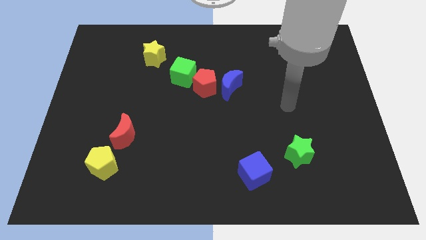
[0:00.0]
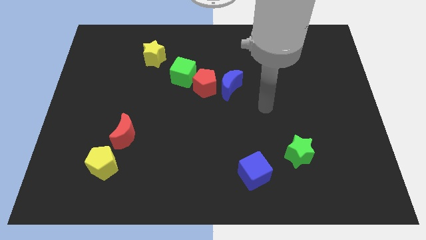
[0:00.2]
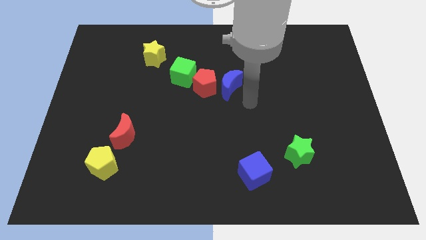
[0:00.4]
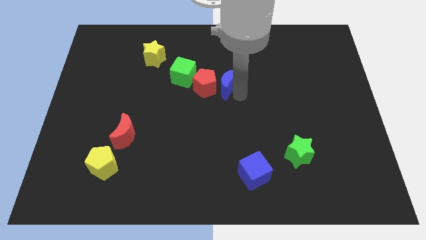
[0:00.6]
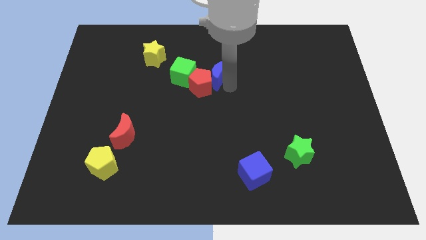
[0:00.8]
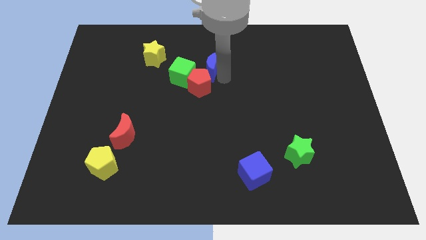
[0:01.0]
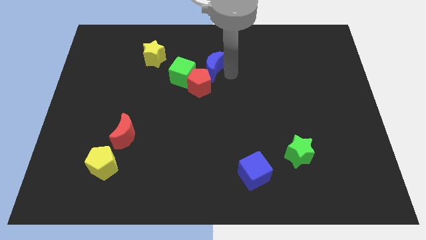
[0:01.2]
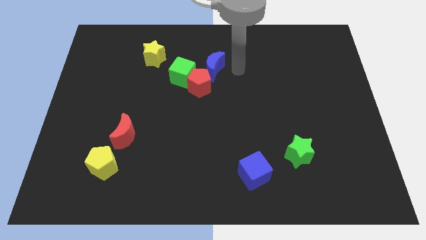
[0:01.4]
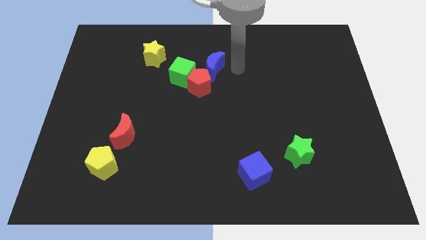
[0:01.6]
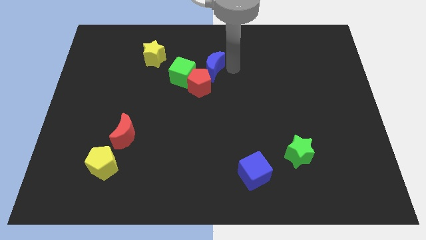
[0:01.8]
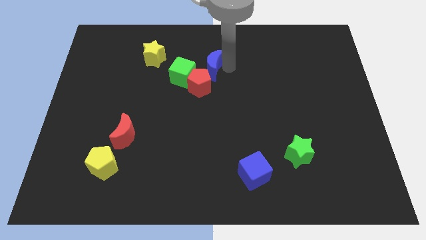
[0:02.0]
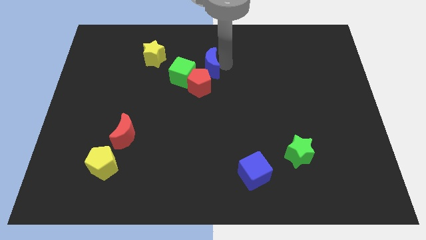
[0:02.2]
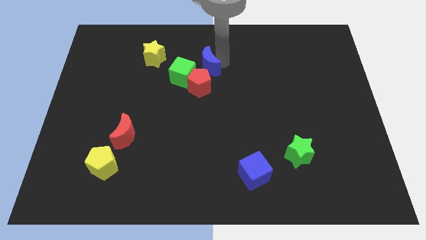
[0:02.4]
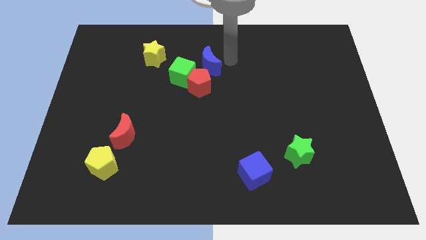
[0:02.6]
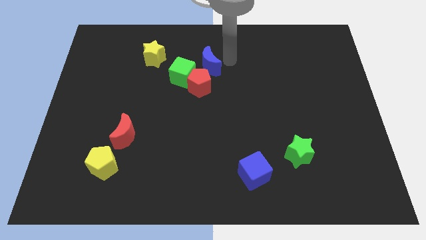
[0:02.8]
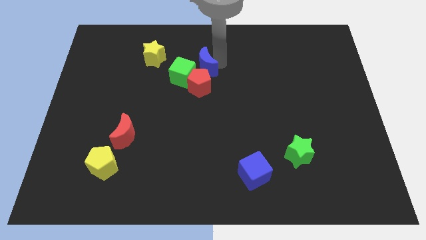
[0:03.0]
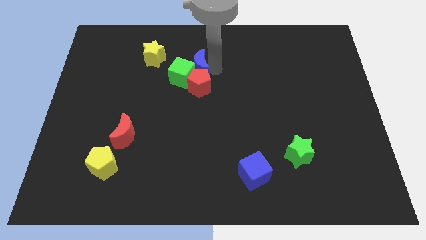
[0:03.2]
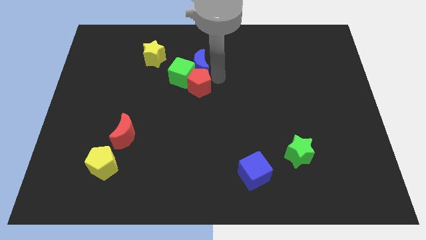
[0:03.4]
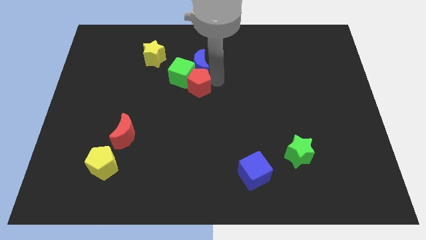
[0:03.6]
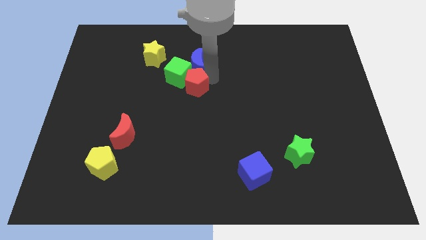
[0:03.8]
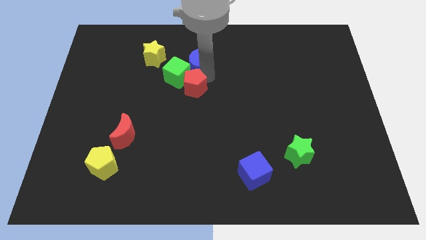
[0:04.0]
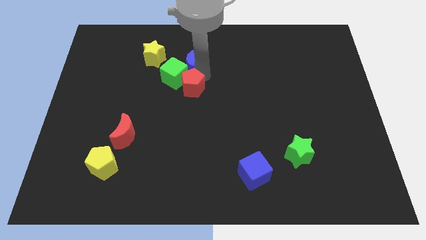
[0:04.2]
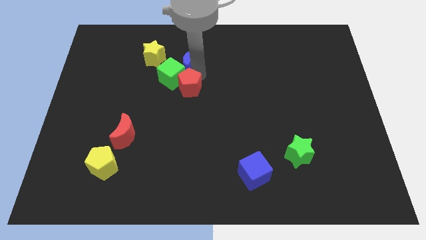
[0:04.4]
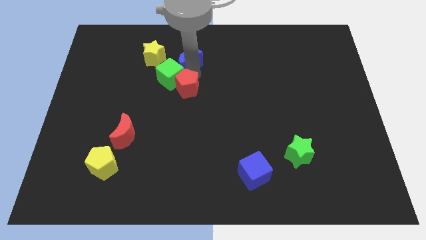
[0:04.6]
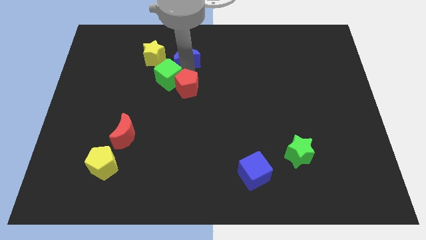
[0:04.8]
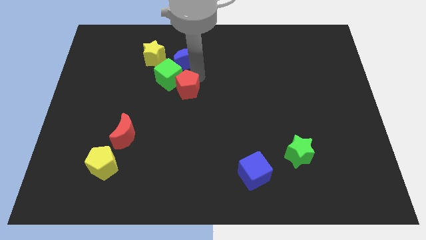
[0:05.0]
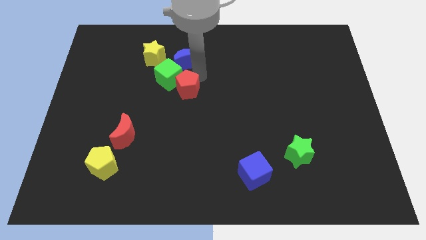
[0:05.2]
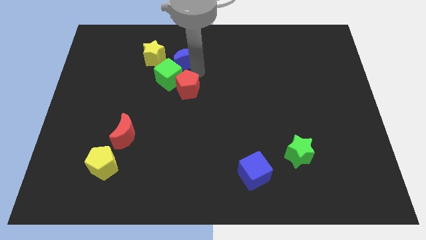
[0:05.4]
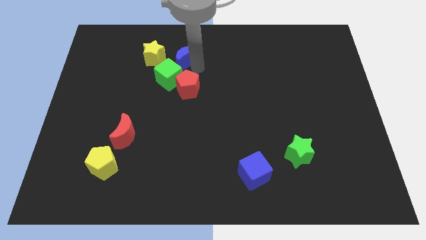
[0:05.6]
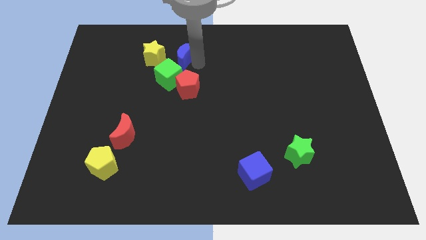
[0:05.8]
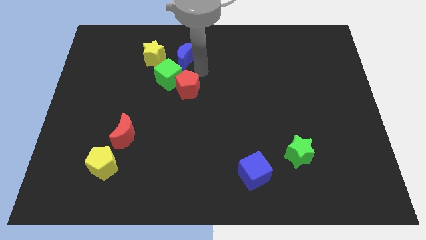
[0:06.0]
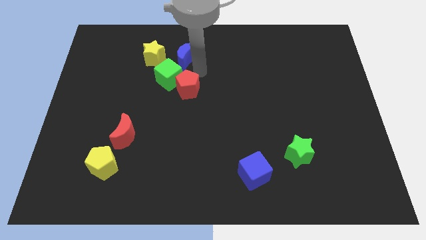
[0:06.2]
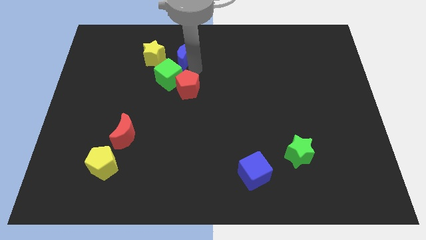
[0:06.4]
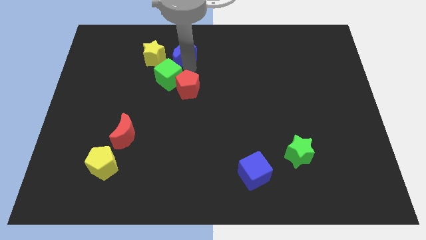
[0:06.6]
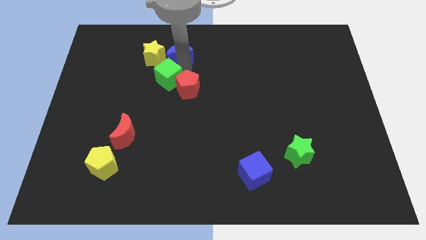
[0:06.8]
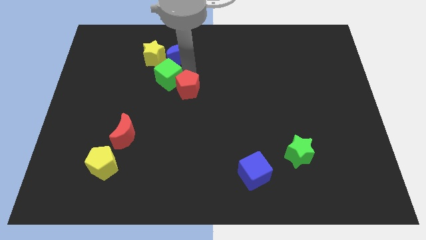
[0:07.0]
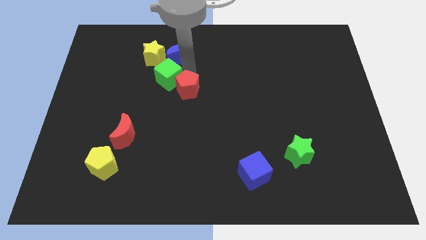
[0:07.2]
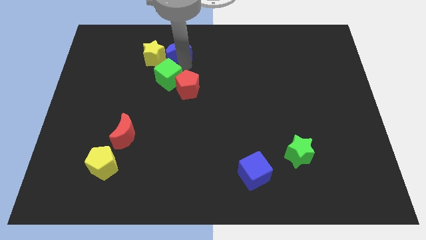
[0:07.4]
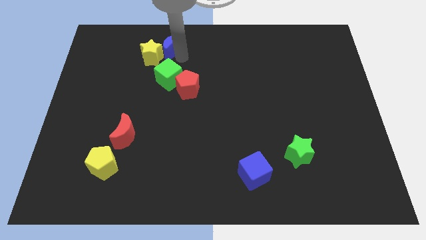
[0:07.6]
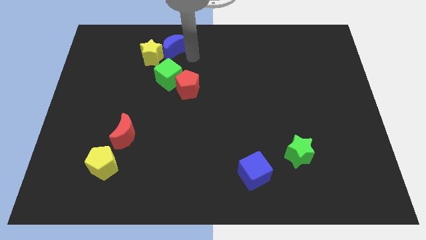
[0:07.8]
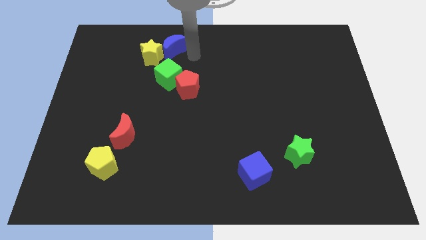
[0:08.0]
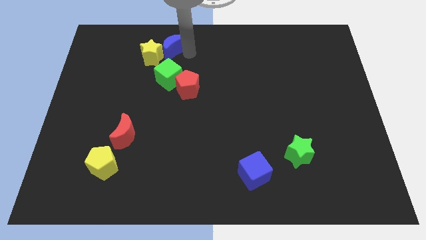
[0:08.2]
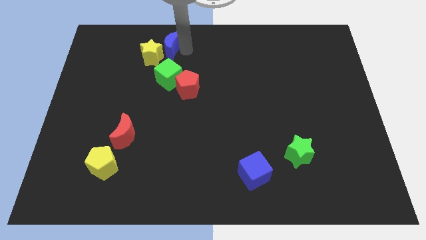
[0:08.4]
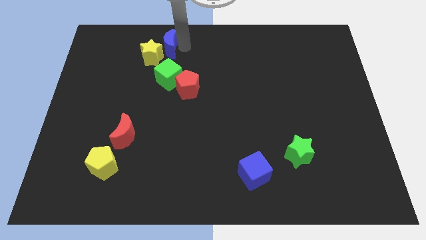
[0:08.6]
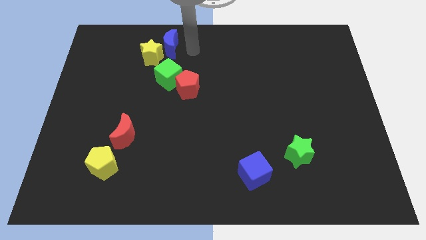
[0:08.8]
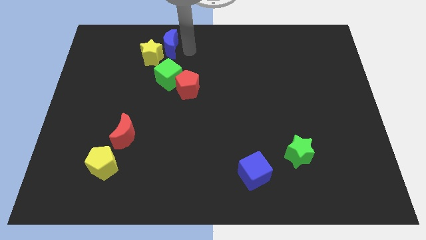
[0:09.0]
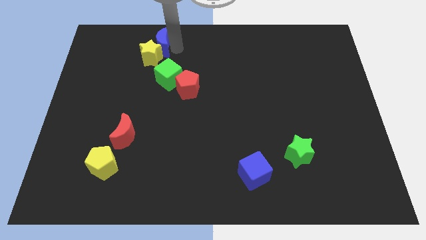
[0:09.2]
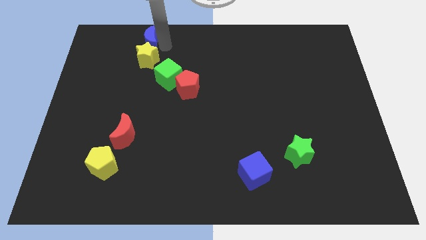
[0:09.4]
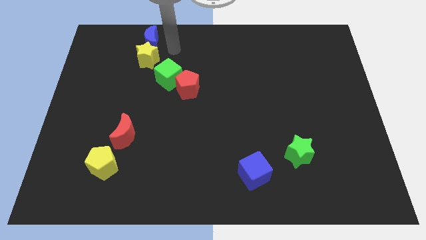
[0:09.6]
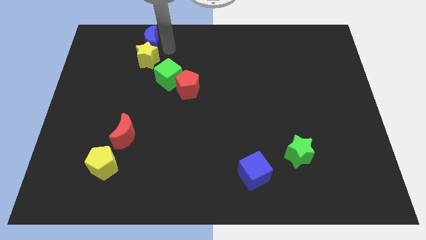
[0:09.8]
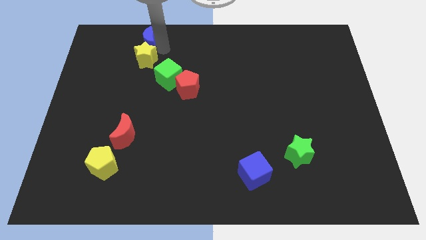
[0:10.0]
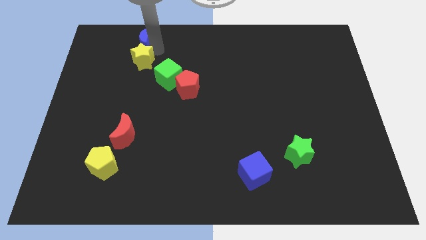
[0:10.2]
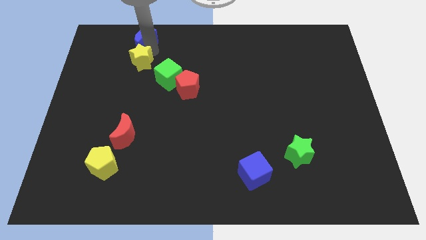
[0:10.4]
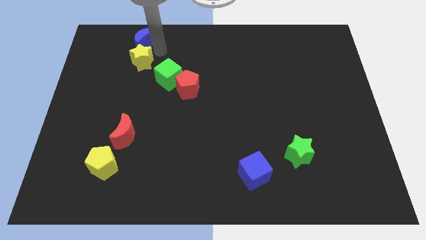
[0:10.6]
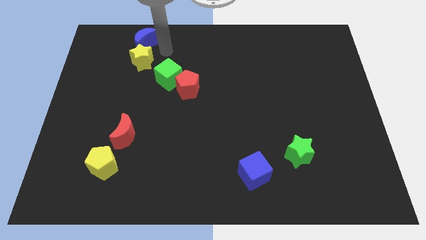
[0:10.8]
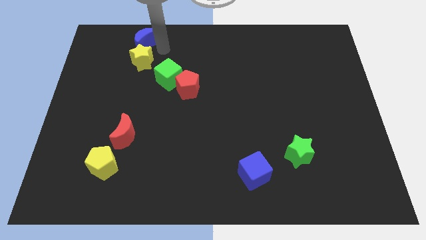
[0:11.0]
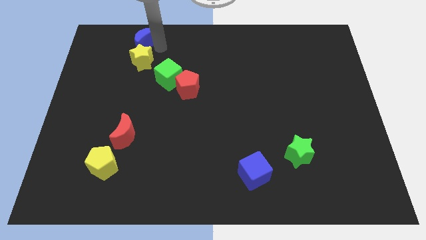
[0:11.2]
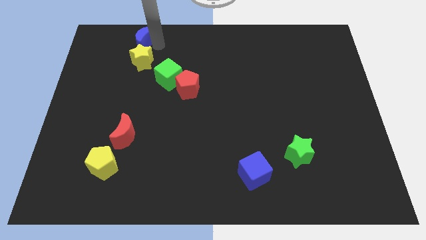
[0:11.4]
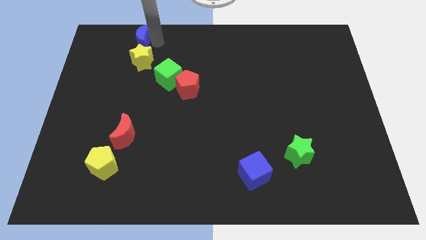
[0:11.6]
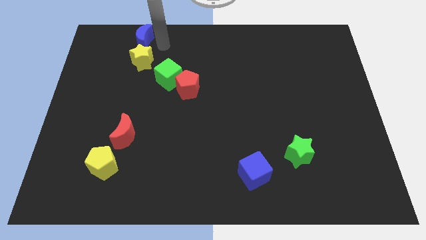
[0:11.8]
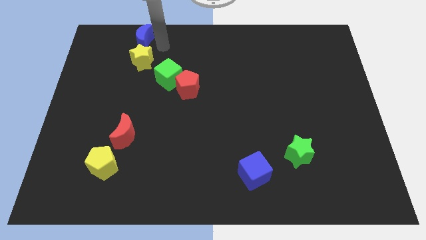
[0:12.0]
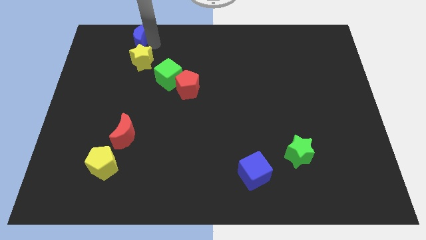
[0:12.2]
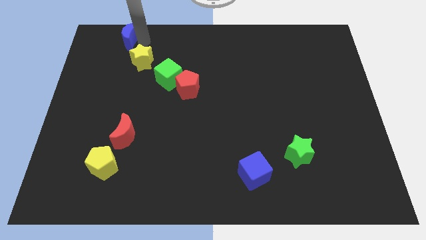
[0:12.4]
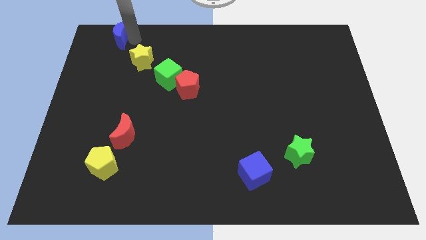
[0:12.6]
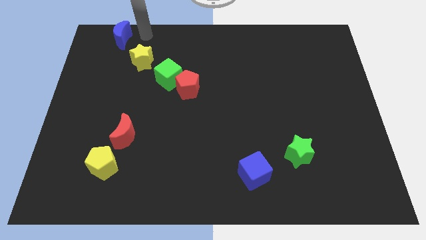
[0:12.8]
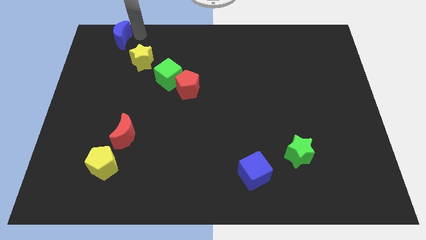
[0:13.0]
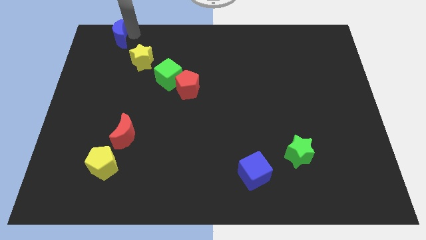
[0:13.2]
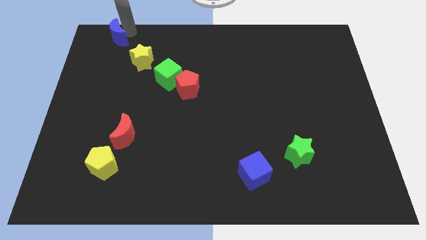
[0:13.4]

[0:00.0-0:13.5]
slide the blue moon to the upper left corner
